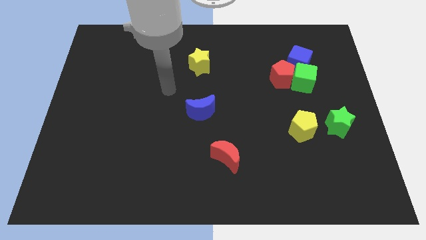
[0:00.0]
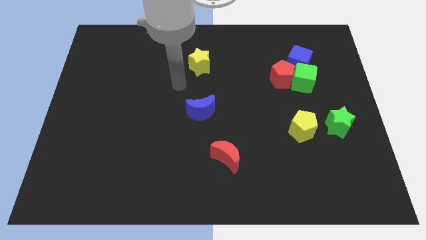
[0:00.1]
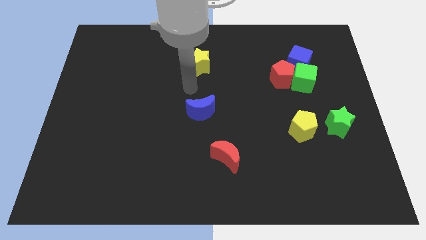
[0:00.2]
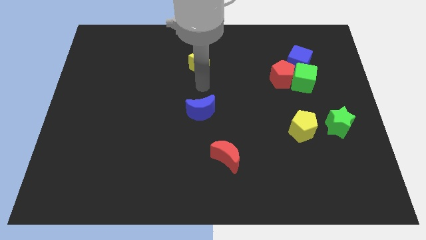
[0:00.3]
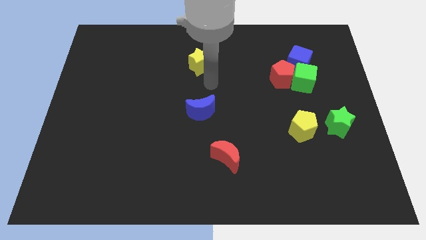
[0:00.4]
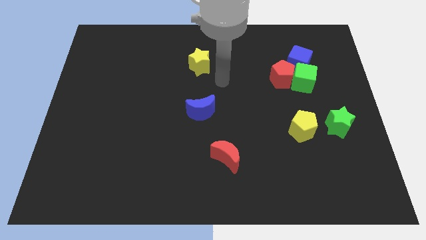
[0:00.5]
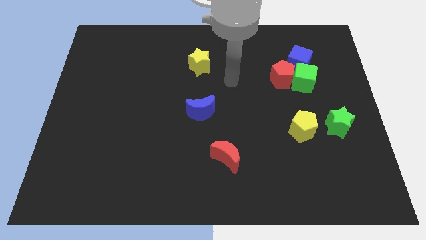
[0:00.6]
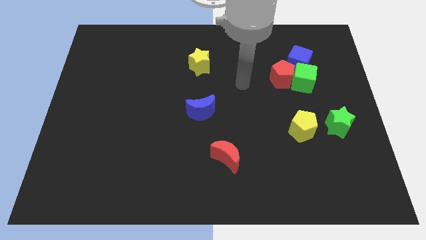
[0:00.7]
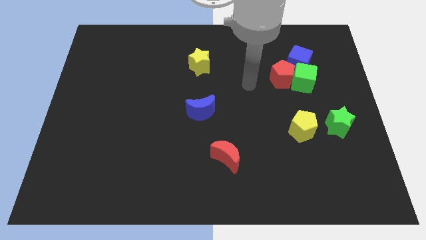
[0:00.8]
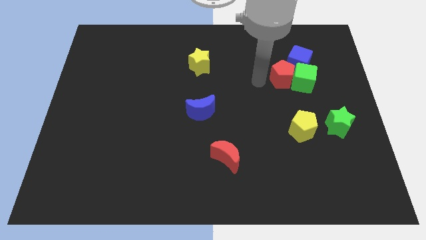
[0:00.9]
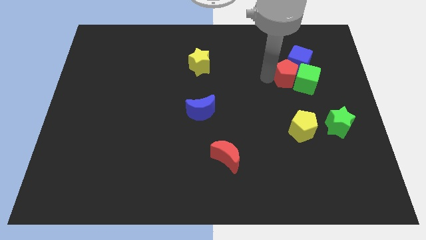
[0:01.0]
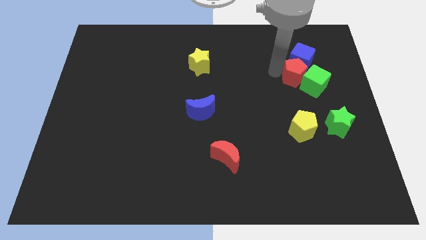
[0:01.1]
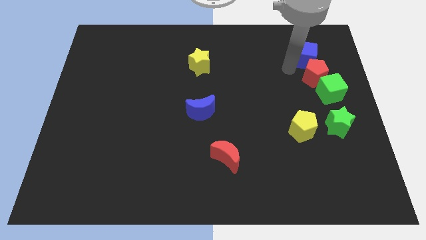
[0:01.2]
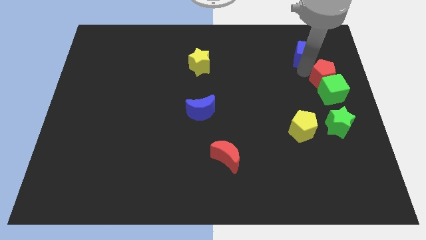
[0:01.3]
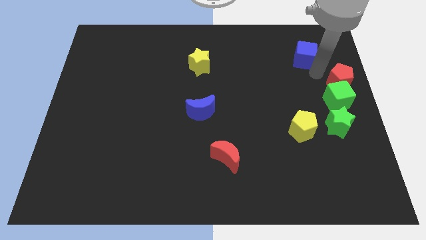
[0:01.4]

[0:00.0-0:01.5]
move the green cube away from the red pentagon and blue cube

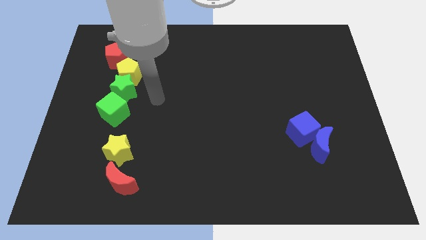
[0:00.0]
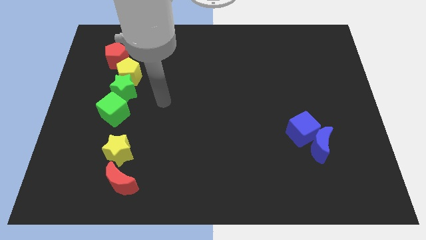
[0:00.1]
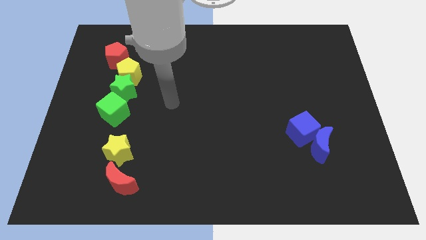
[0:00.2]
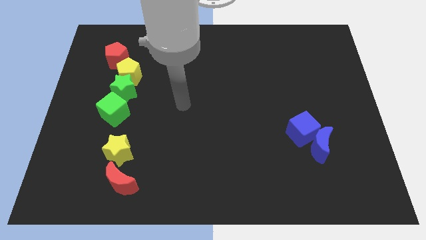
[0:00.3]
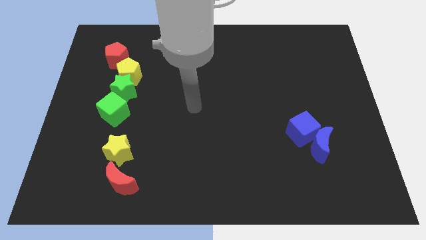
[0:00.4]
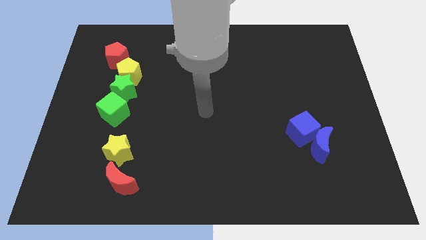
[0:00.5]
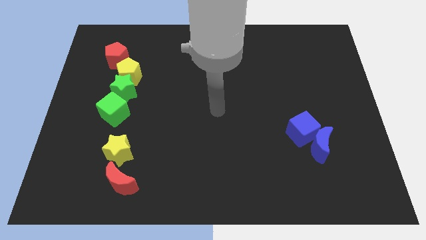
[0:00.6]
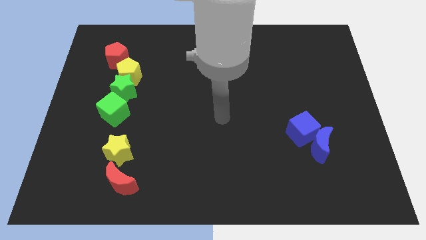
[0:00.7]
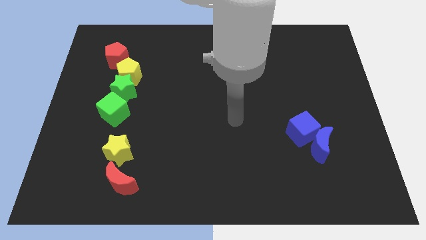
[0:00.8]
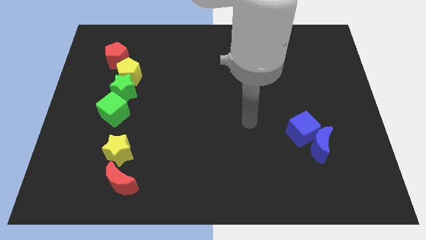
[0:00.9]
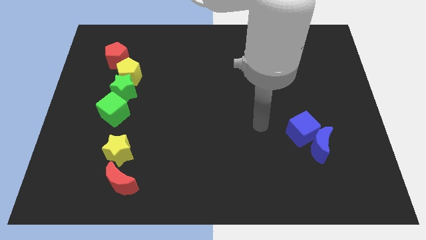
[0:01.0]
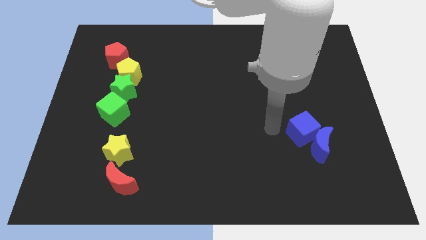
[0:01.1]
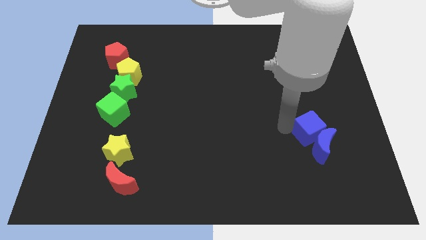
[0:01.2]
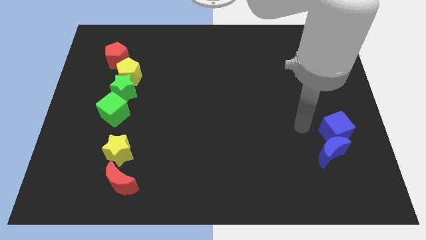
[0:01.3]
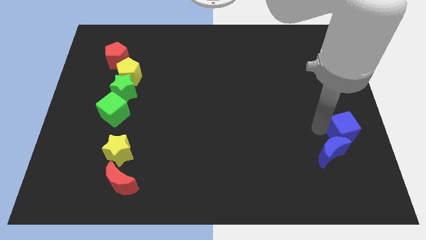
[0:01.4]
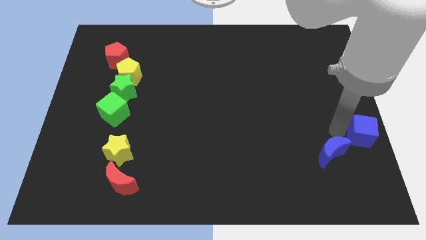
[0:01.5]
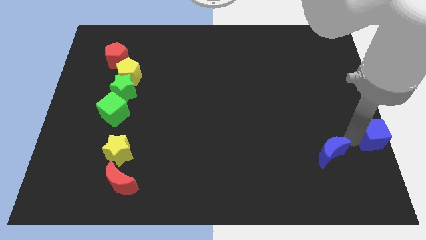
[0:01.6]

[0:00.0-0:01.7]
separate the blue moon from the blue cube

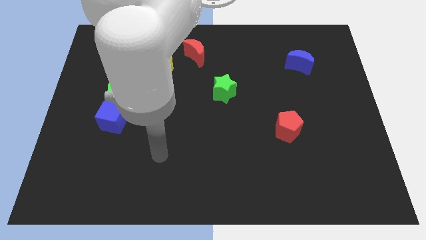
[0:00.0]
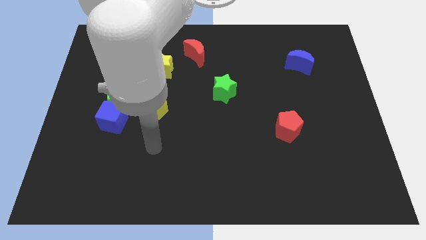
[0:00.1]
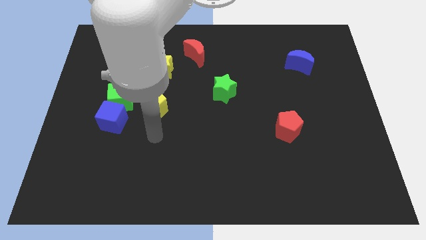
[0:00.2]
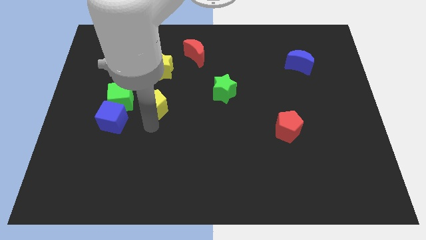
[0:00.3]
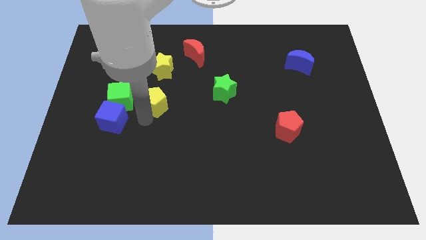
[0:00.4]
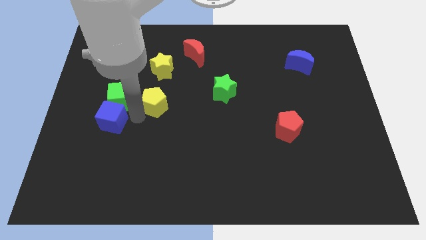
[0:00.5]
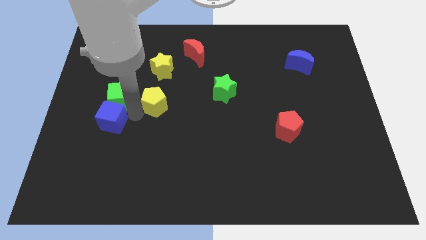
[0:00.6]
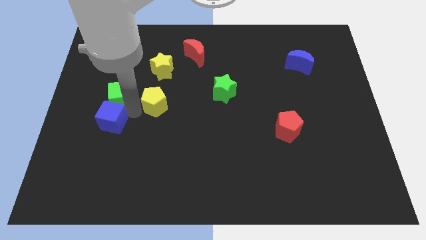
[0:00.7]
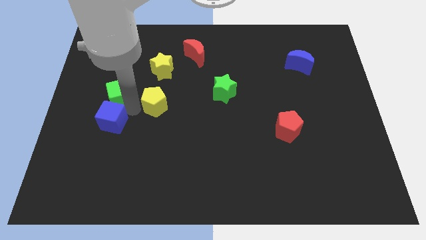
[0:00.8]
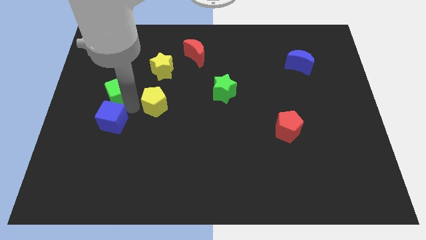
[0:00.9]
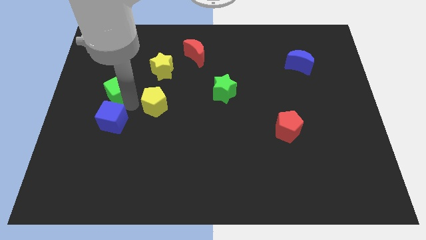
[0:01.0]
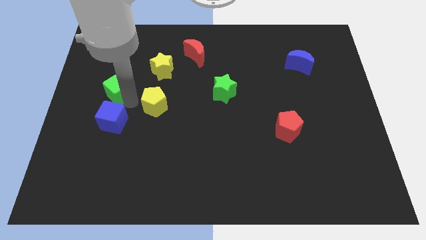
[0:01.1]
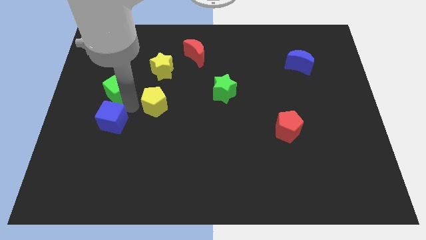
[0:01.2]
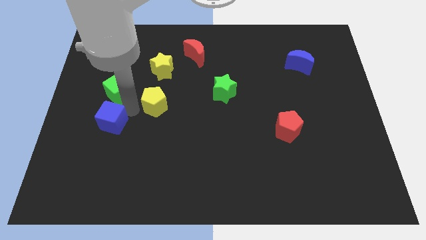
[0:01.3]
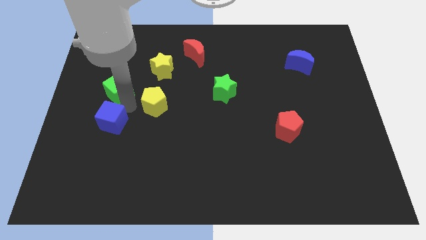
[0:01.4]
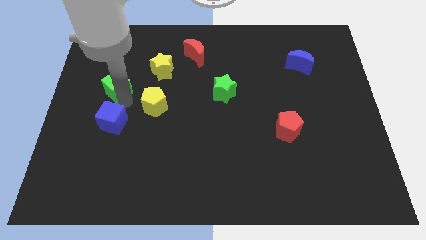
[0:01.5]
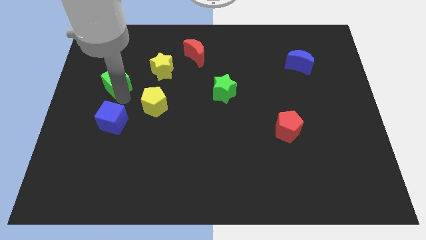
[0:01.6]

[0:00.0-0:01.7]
separate the green cube from the blue cube and yellow pentagon

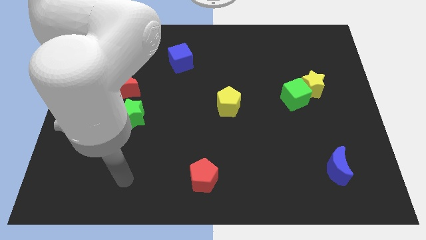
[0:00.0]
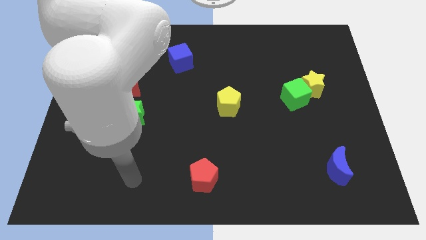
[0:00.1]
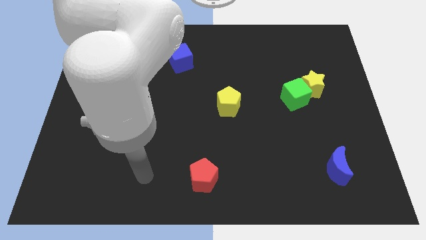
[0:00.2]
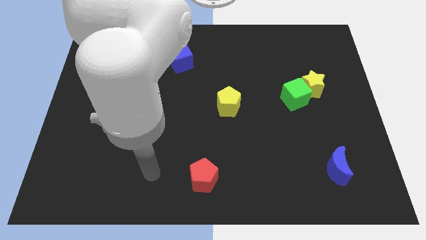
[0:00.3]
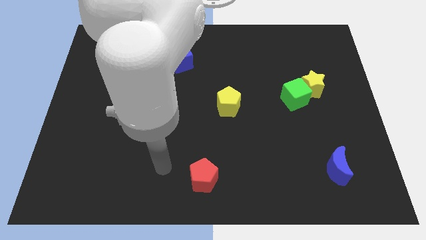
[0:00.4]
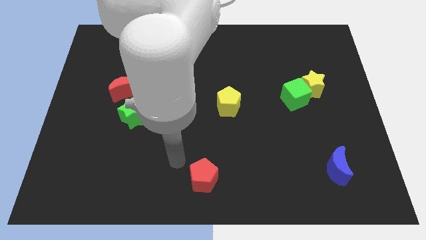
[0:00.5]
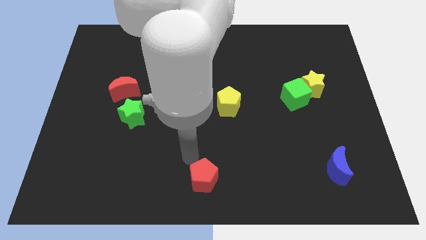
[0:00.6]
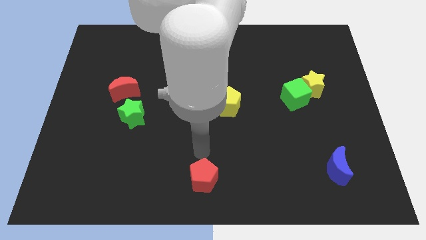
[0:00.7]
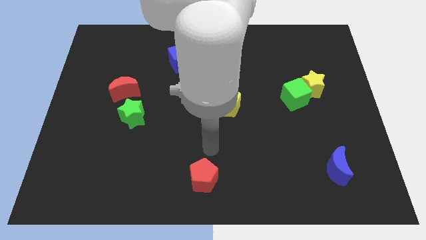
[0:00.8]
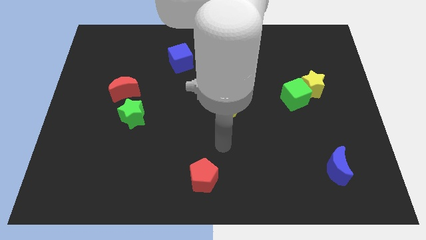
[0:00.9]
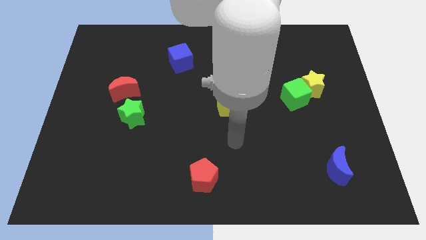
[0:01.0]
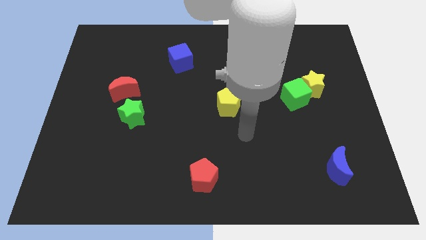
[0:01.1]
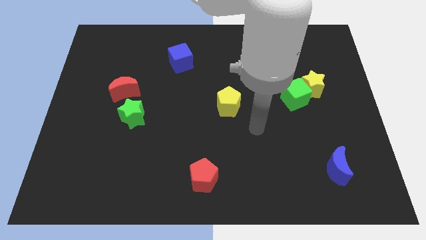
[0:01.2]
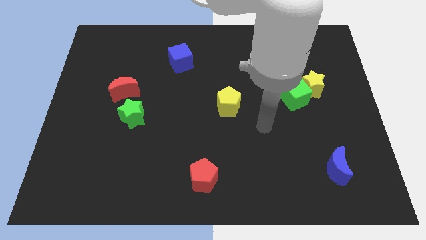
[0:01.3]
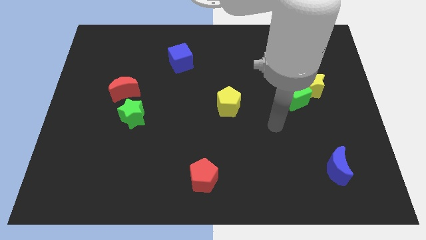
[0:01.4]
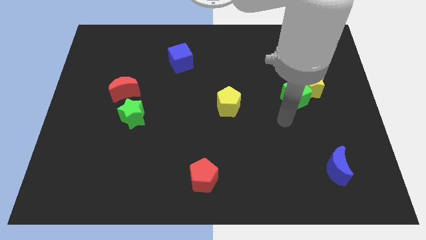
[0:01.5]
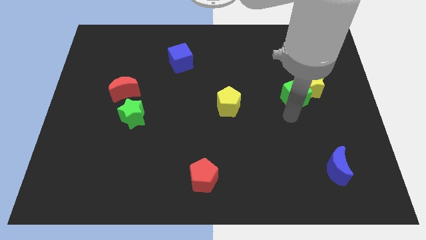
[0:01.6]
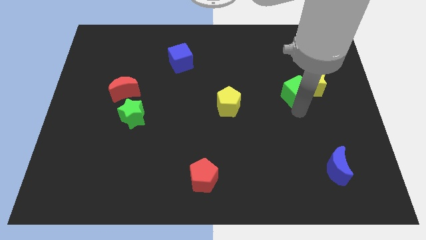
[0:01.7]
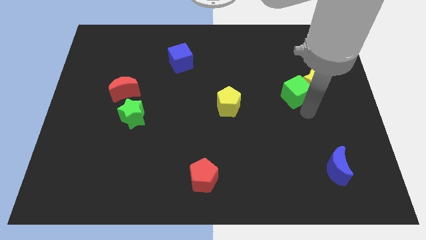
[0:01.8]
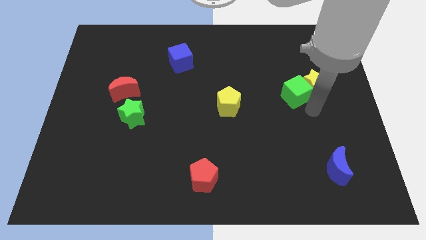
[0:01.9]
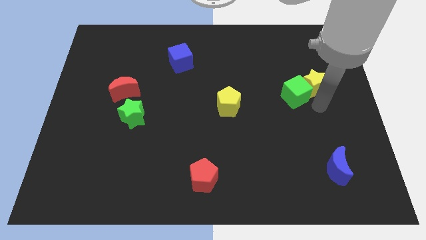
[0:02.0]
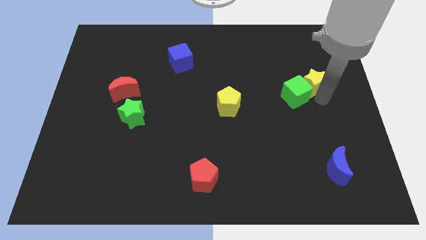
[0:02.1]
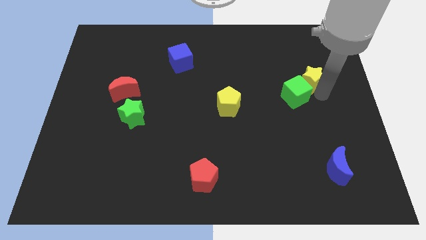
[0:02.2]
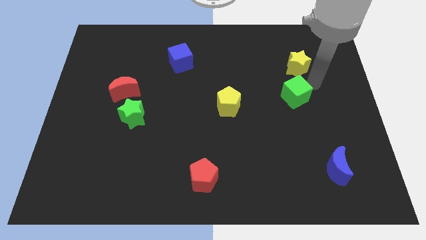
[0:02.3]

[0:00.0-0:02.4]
pull the green cube apart from the yellow star

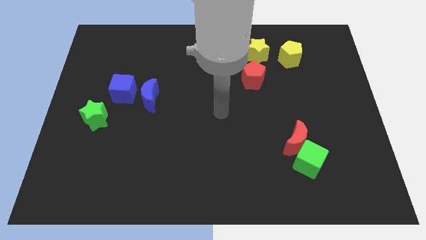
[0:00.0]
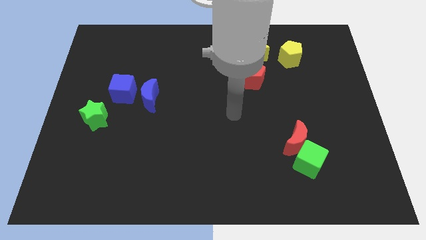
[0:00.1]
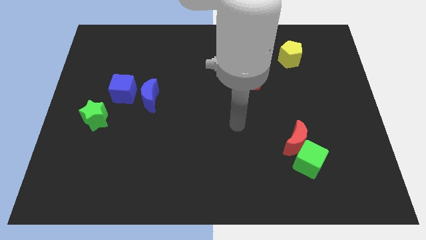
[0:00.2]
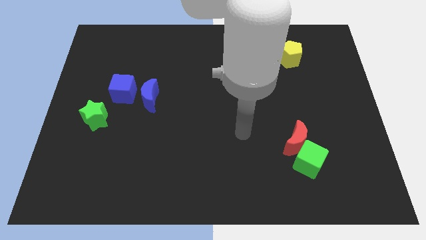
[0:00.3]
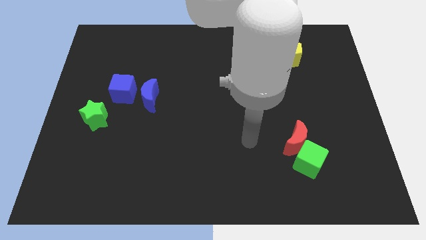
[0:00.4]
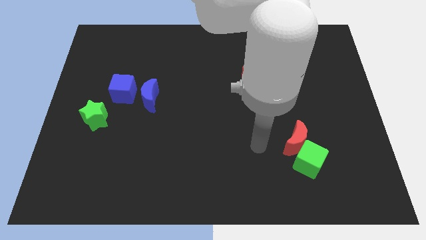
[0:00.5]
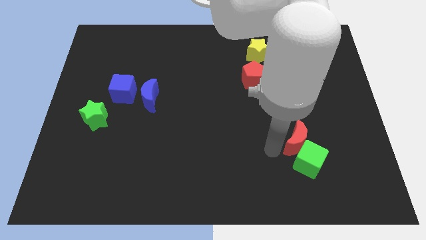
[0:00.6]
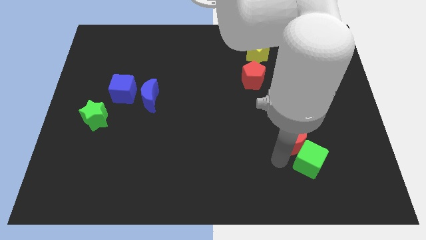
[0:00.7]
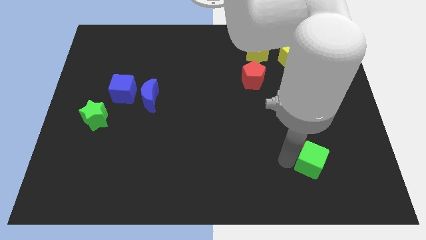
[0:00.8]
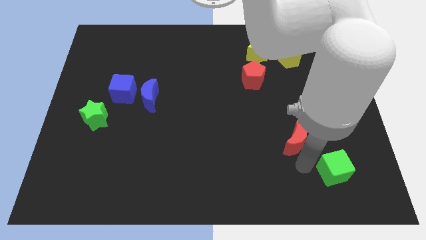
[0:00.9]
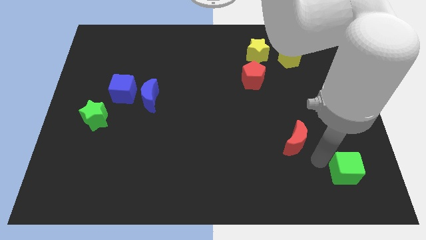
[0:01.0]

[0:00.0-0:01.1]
pull the red moon apart from the green cube

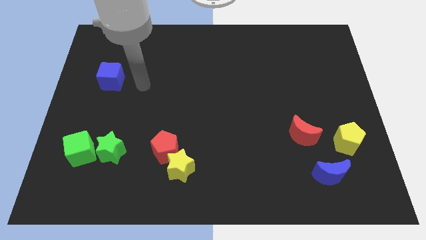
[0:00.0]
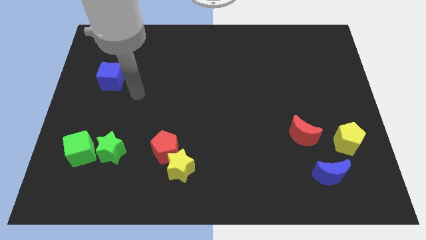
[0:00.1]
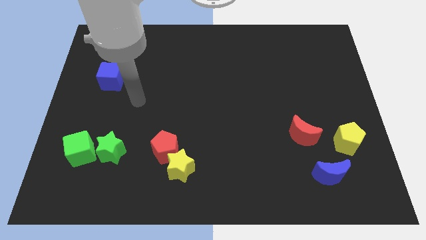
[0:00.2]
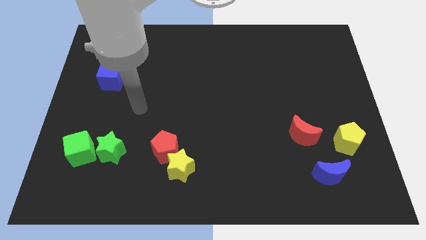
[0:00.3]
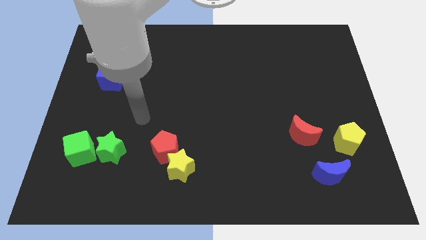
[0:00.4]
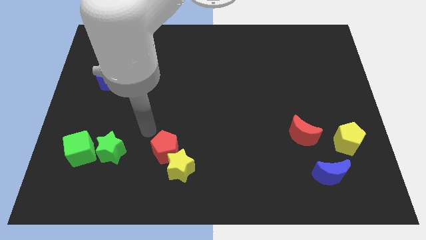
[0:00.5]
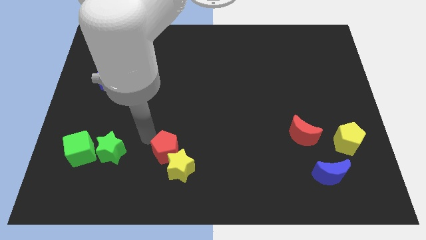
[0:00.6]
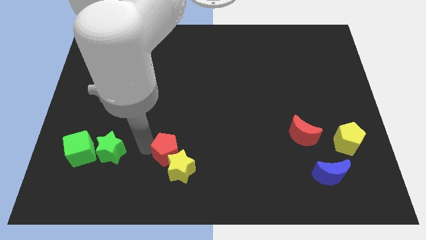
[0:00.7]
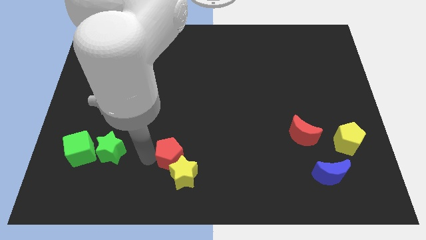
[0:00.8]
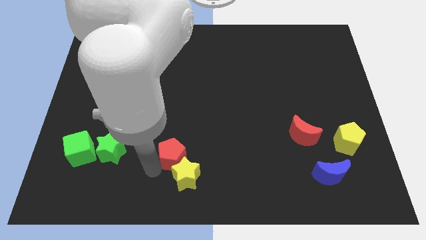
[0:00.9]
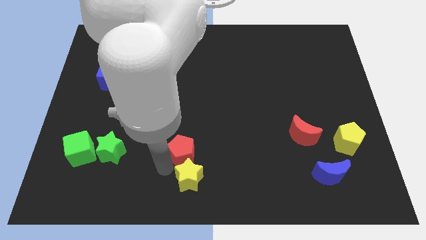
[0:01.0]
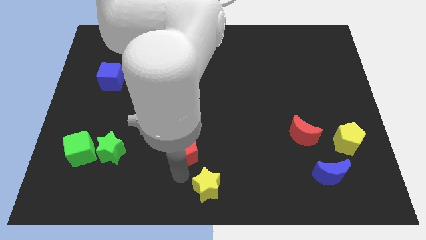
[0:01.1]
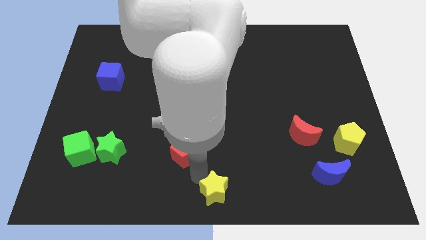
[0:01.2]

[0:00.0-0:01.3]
separate the red pentagon from the yellow star
